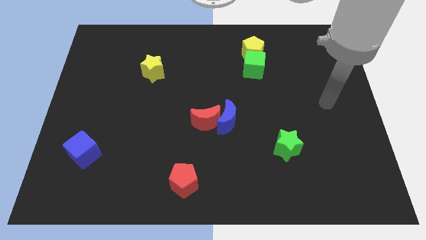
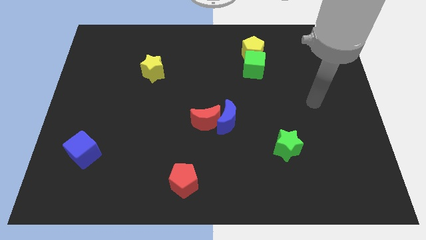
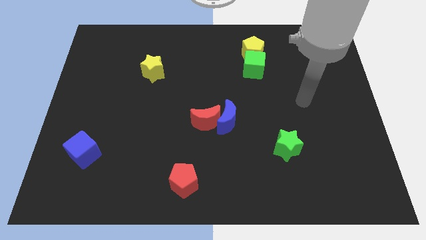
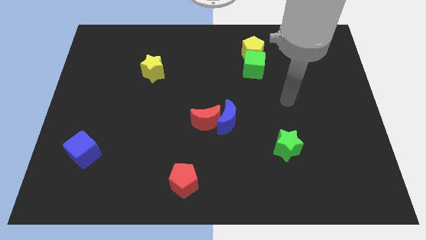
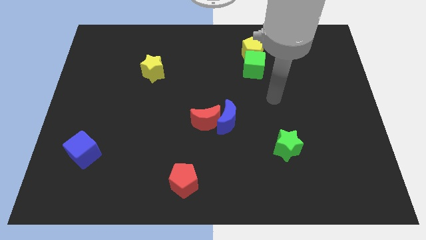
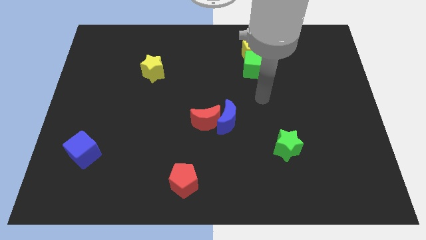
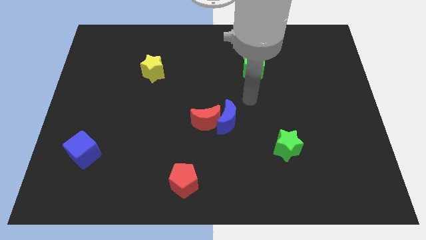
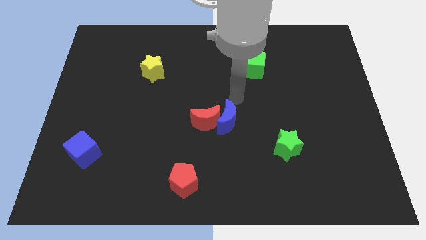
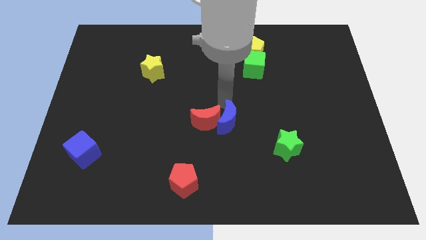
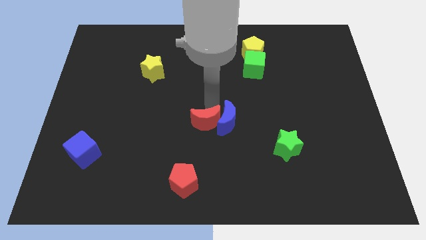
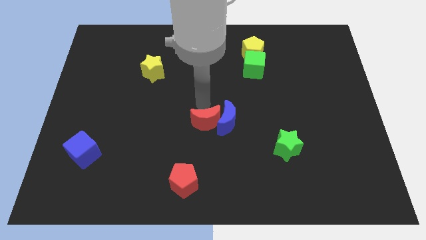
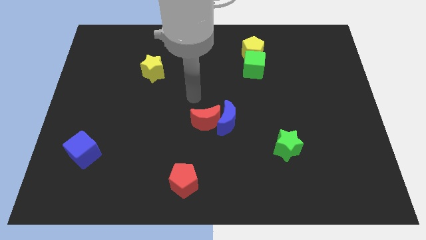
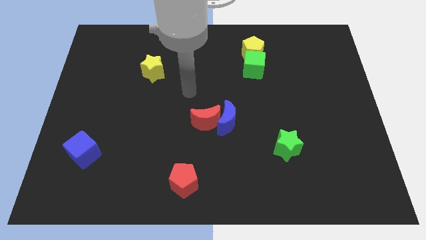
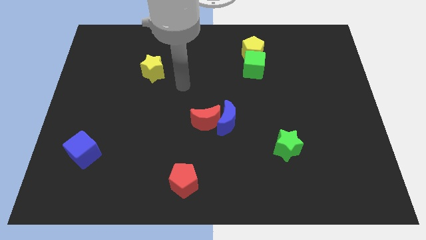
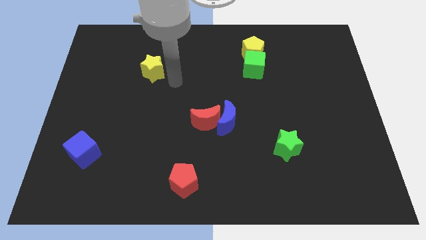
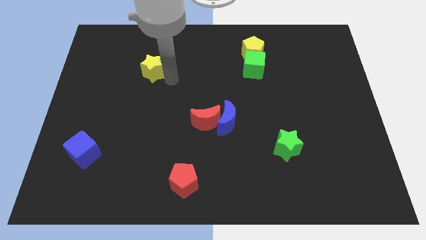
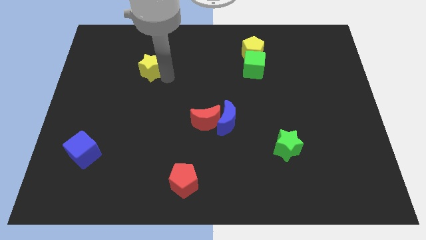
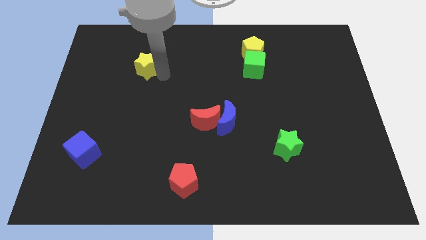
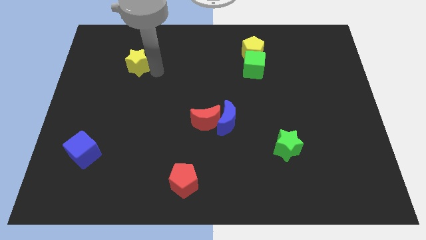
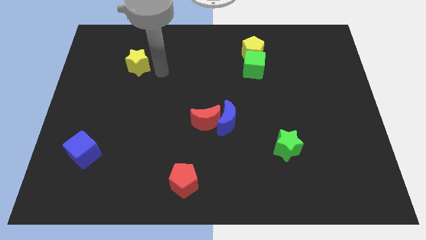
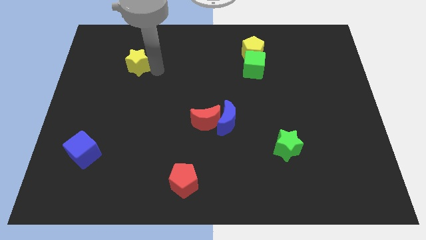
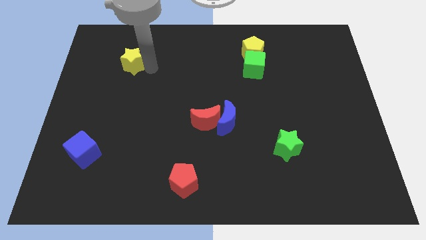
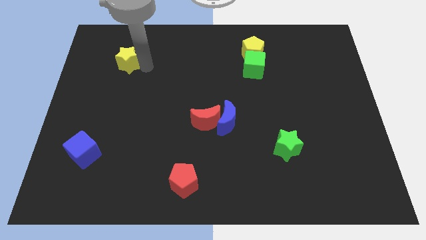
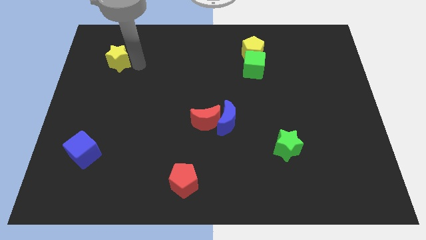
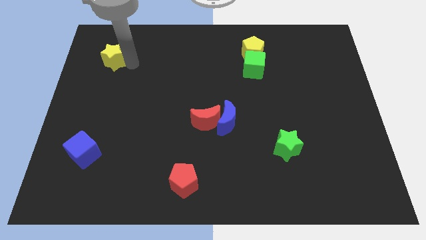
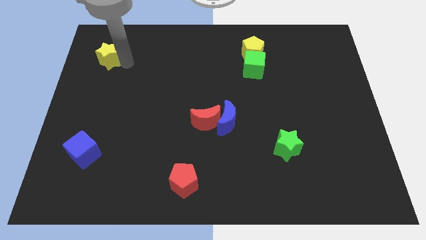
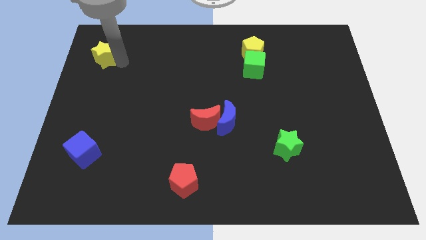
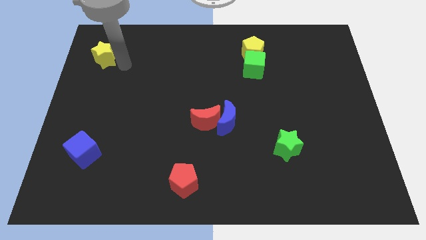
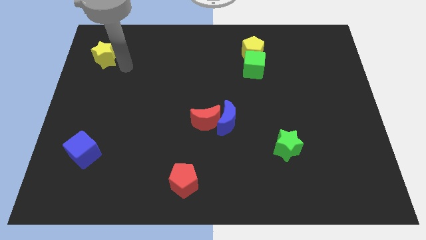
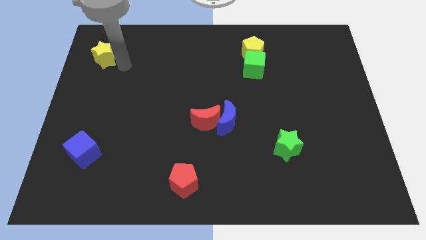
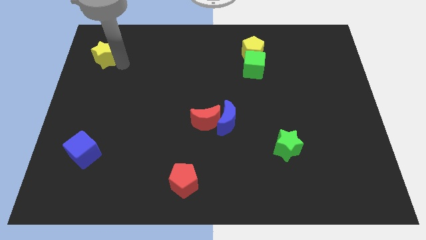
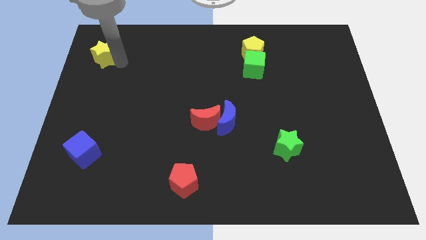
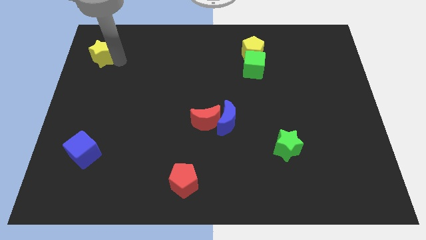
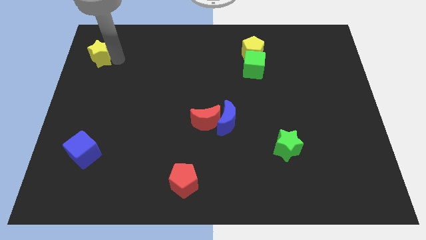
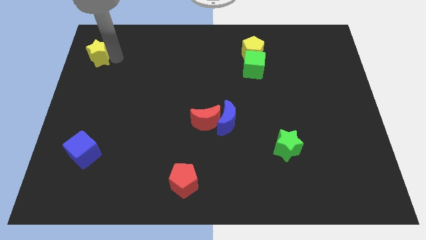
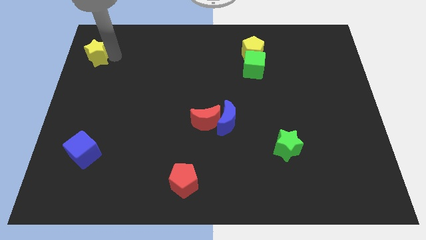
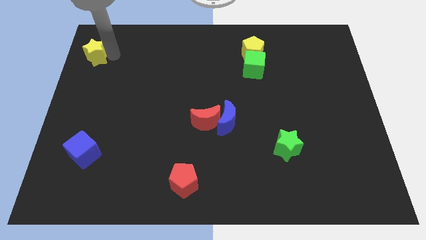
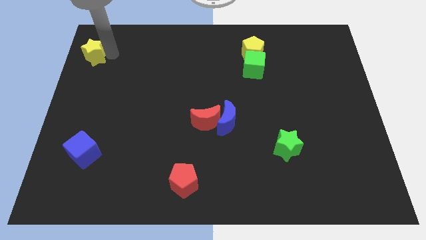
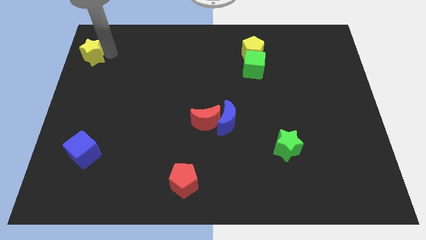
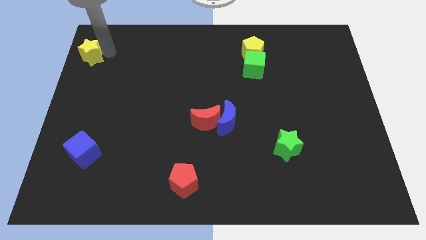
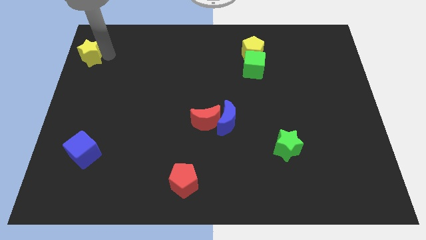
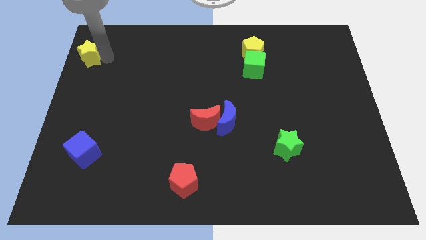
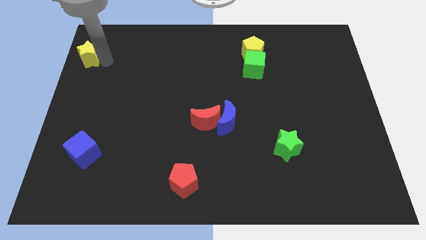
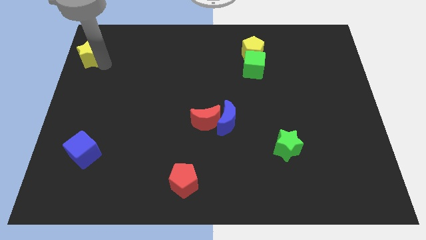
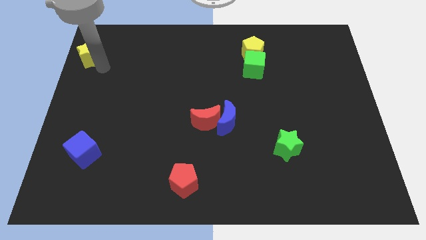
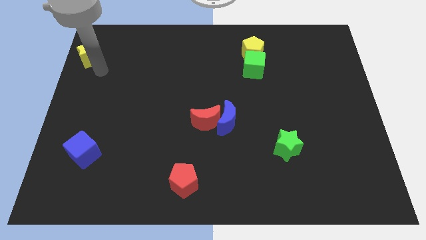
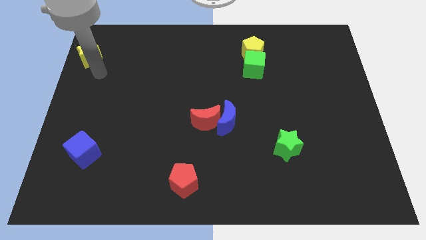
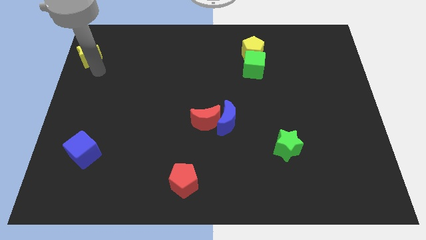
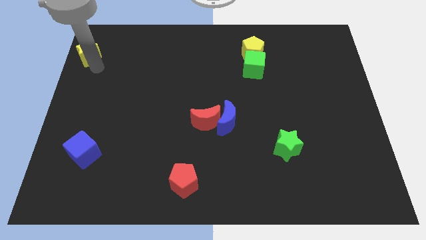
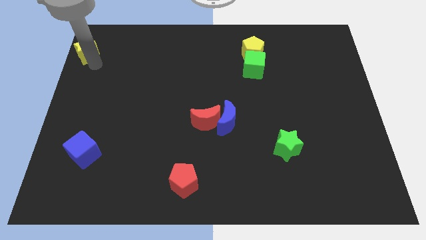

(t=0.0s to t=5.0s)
move the yellow star to the top left of the board

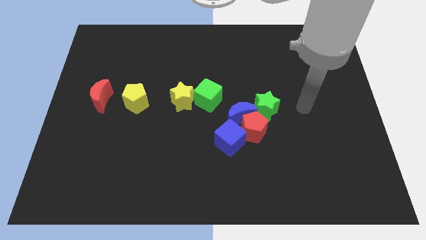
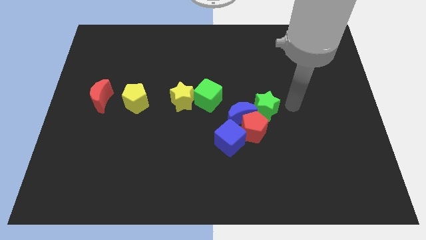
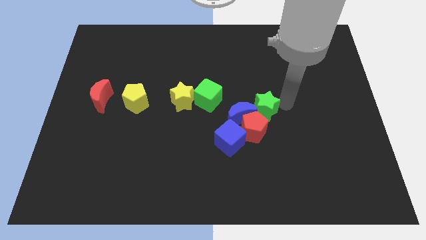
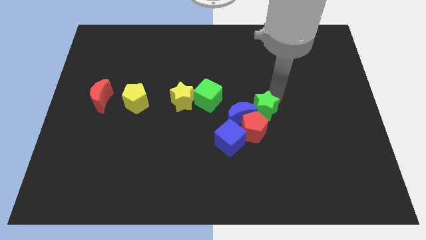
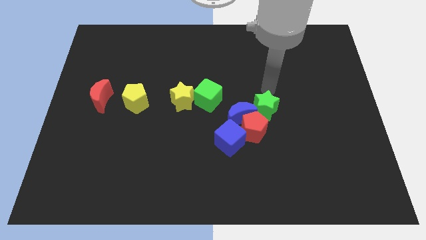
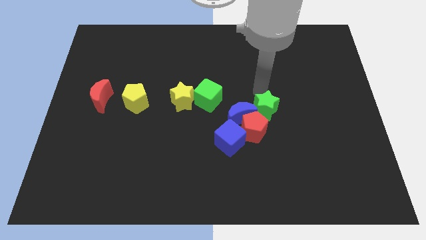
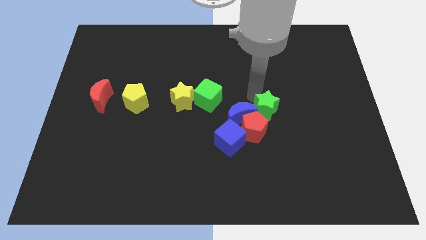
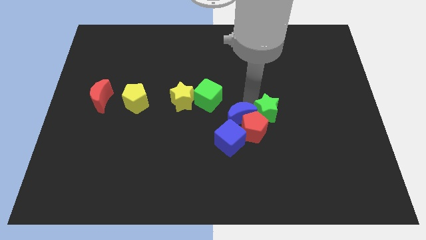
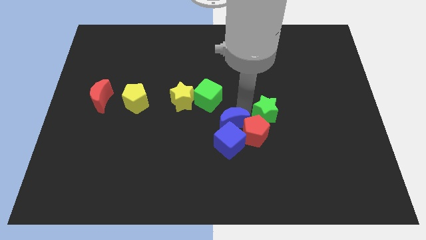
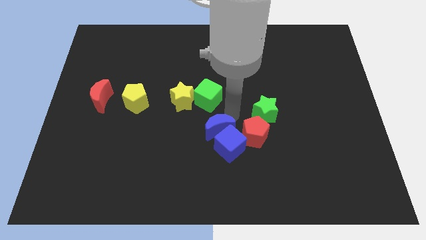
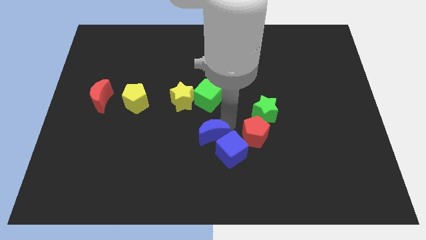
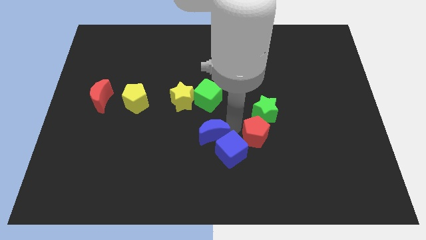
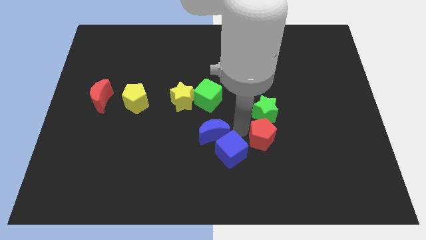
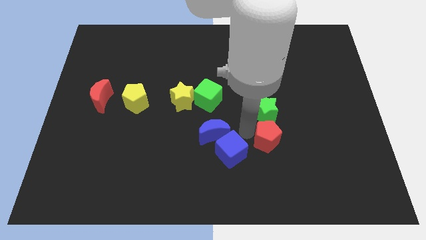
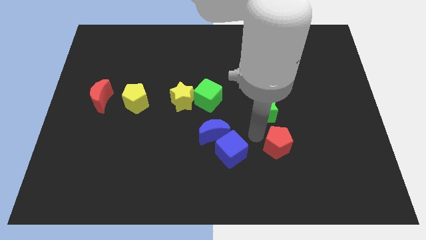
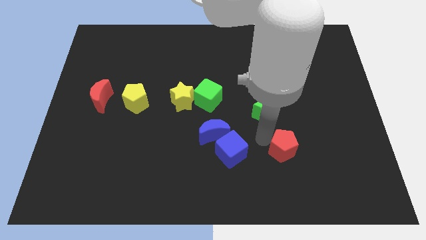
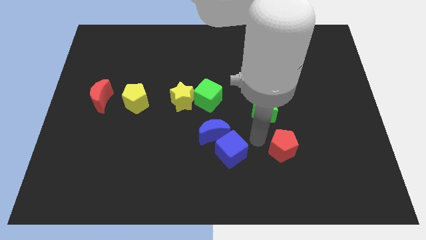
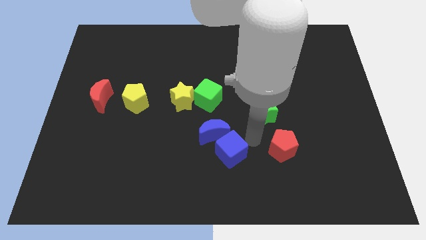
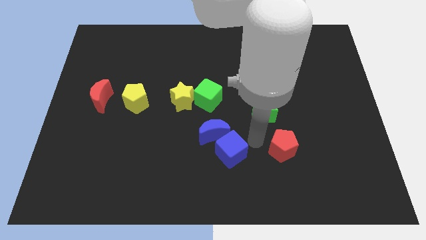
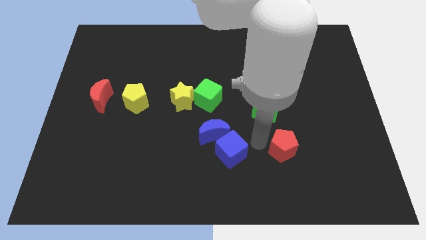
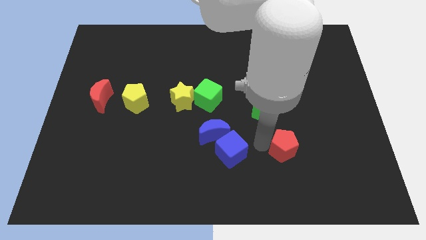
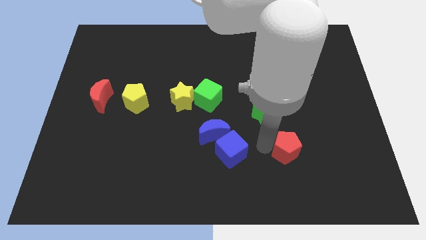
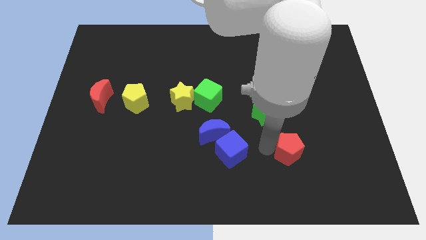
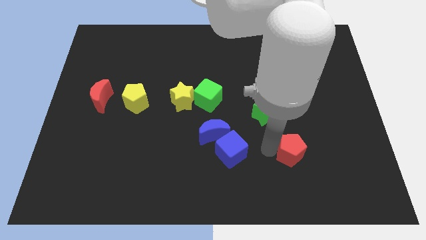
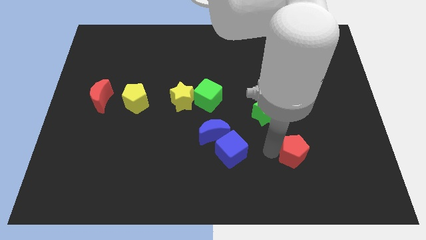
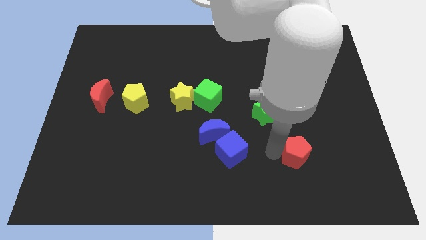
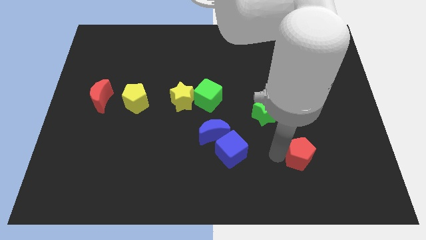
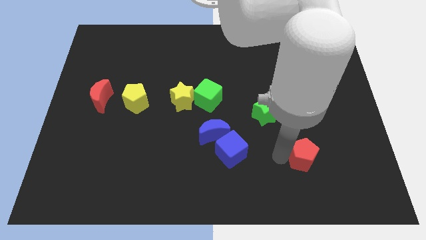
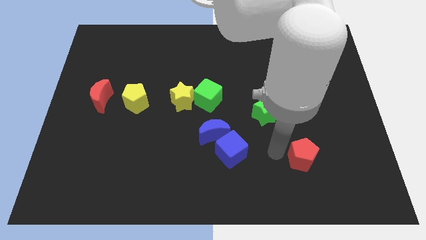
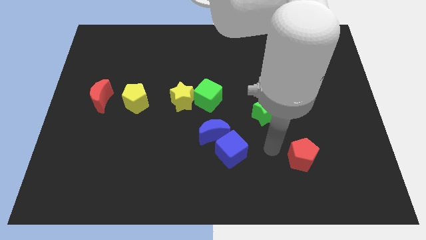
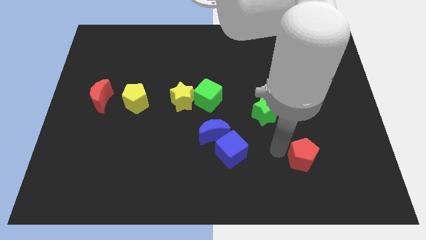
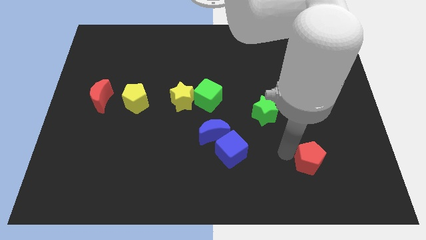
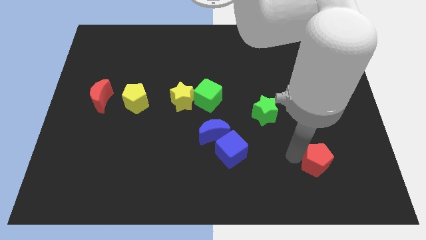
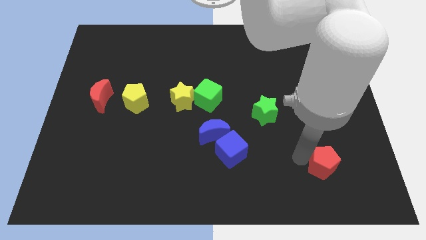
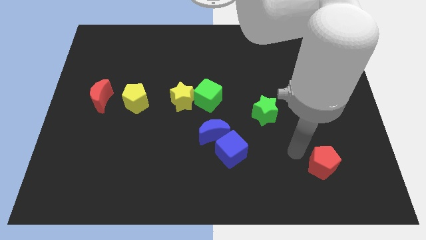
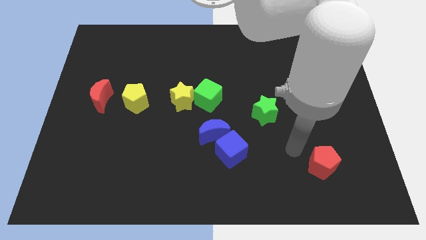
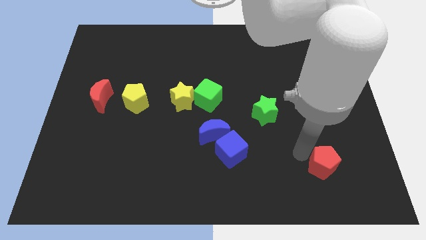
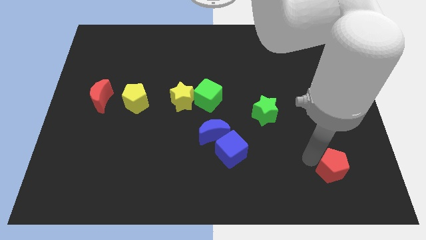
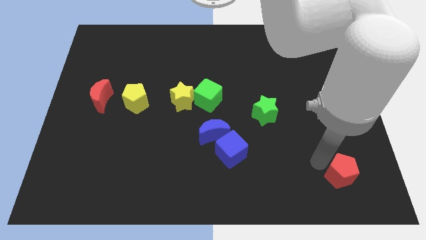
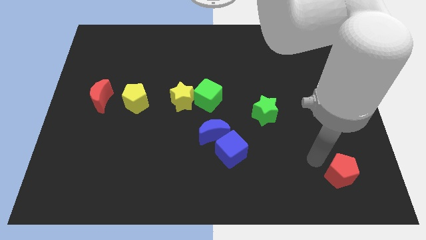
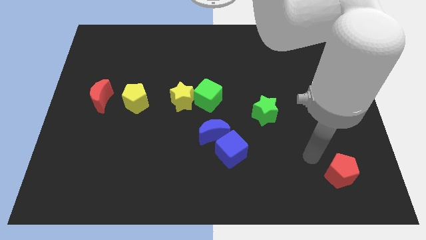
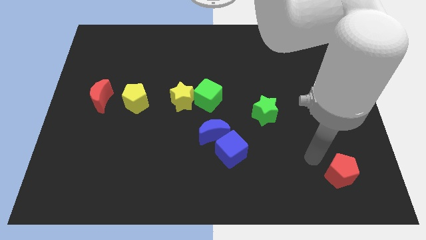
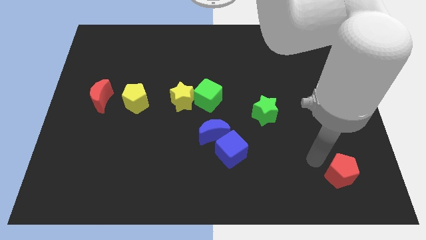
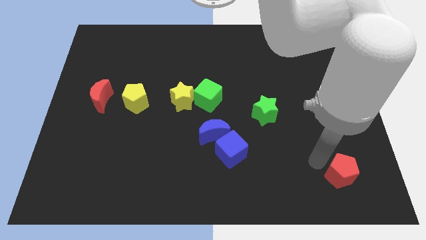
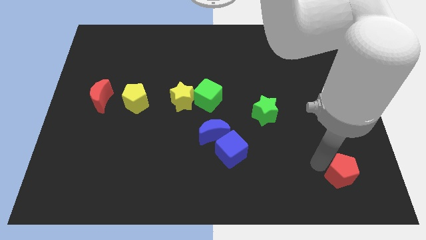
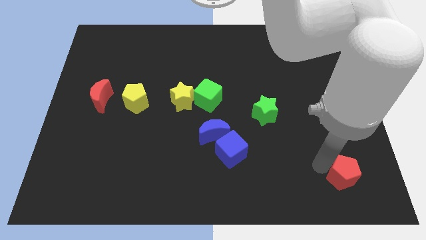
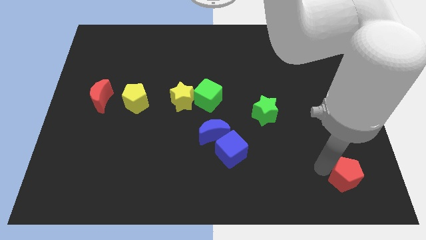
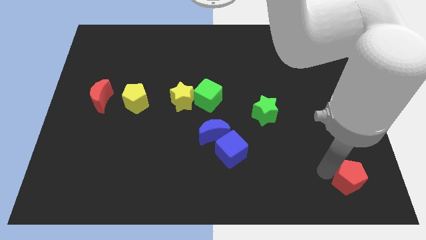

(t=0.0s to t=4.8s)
push the red pentagon to the lower right corner
